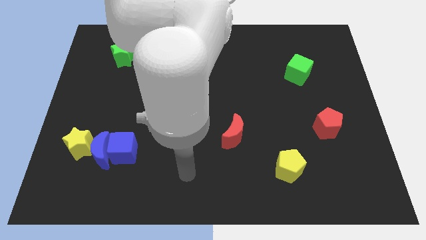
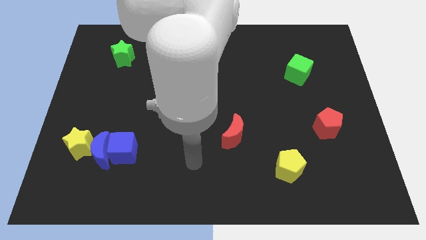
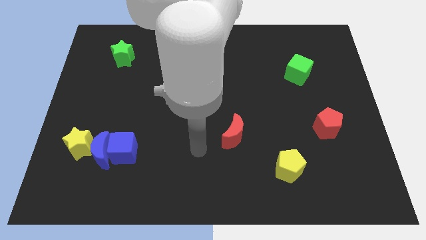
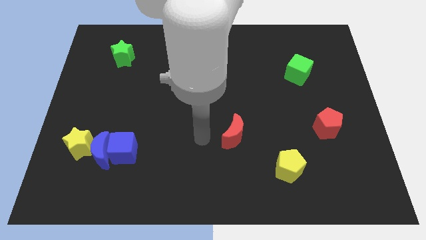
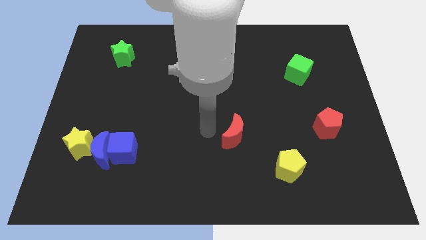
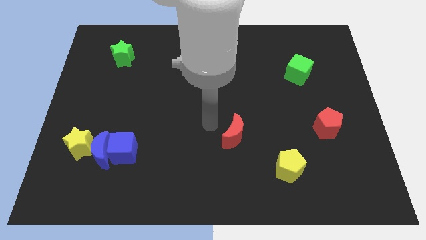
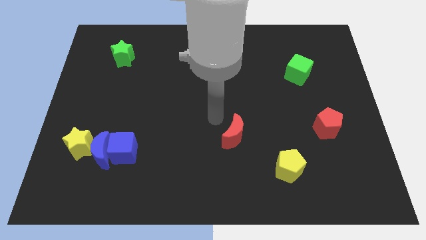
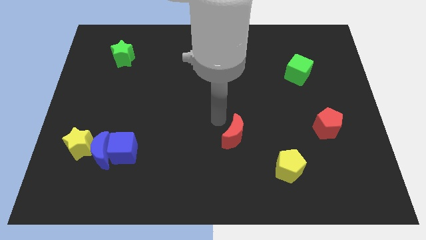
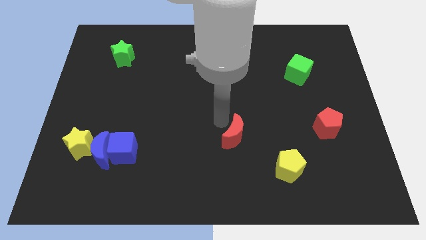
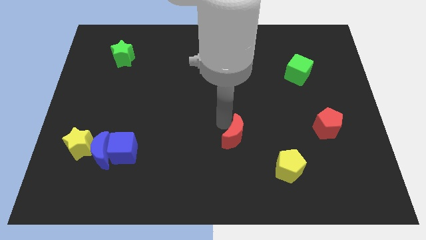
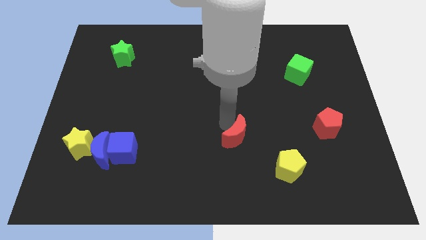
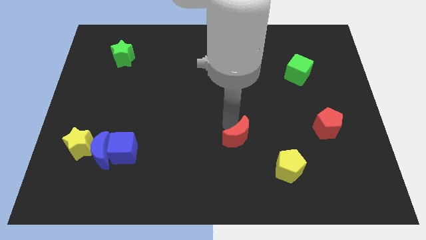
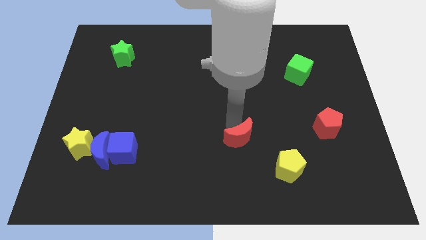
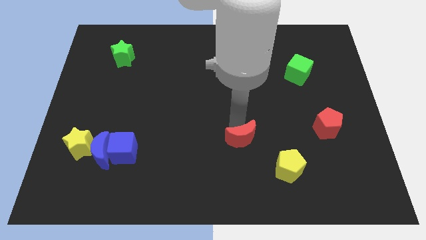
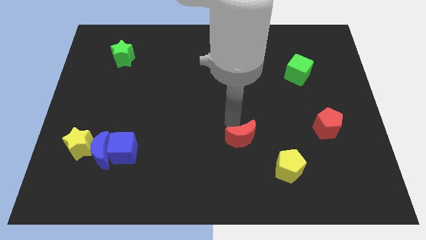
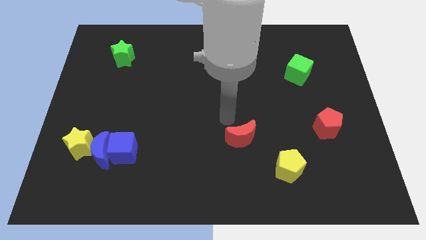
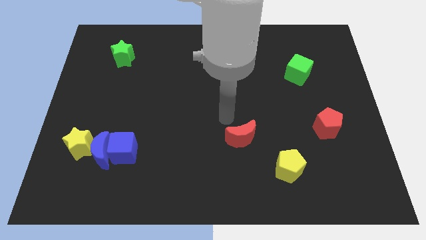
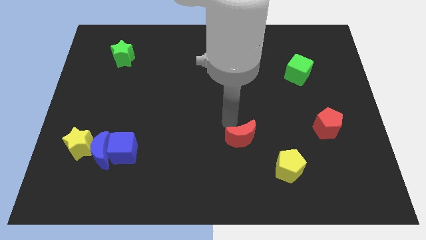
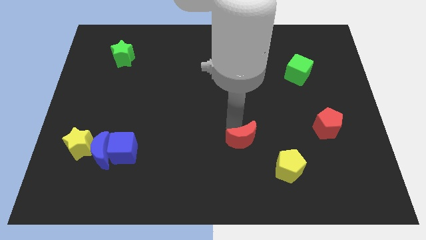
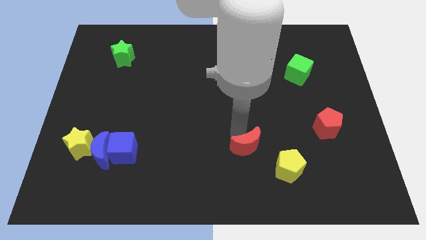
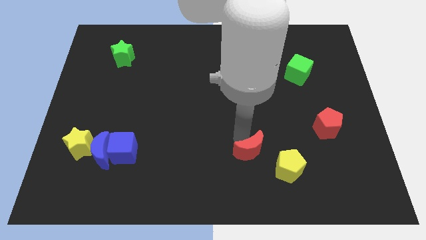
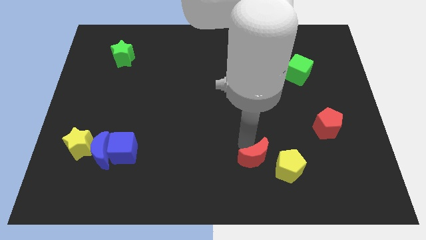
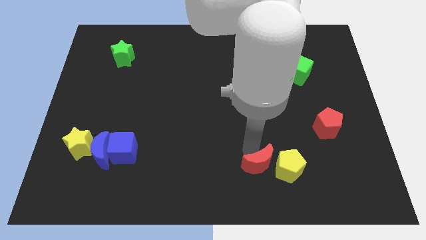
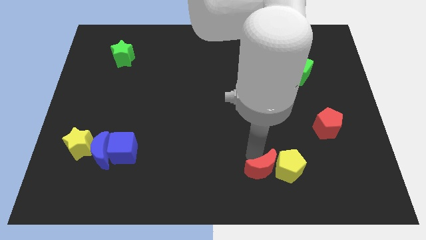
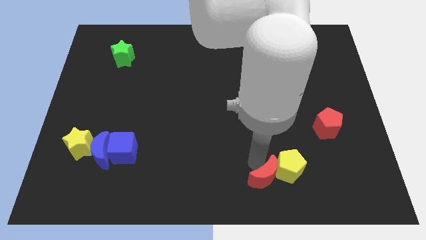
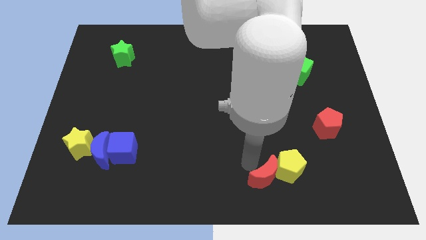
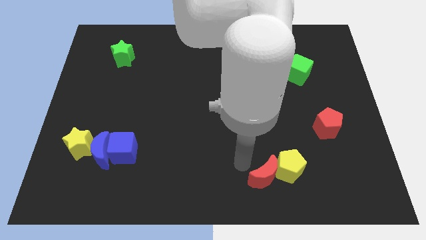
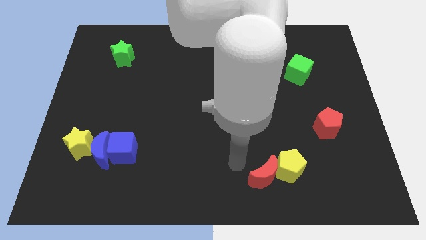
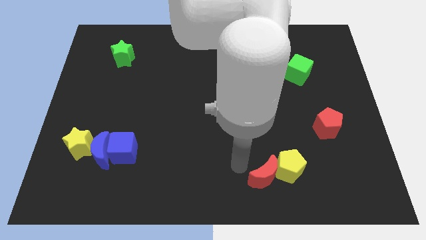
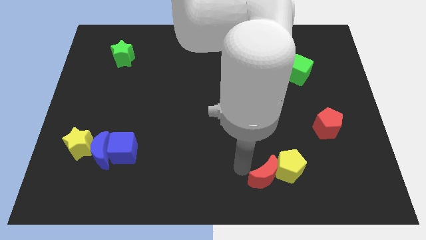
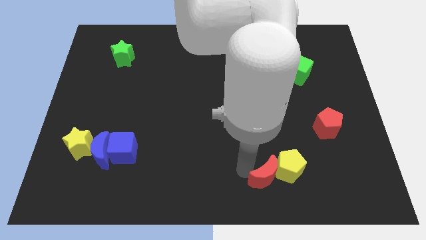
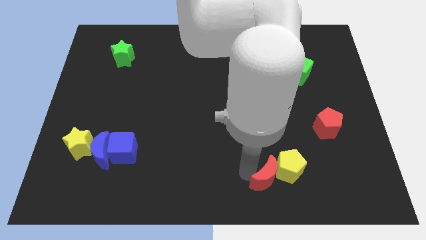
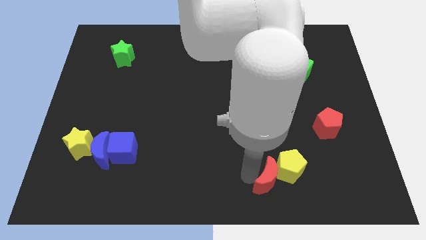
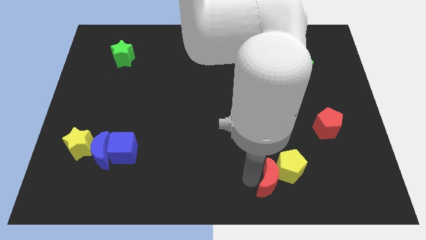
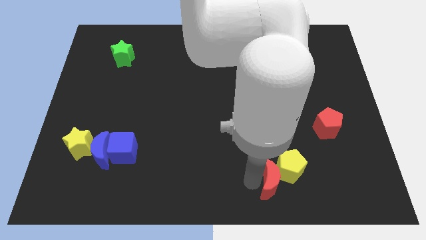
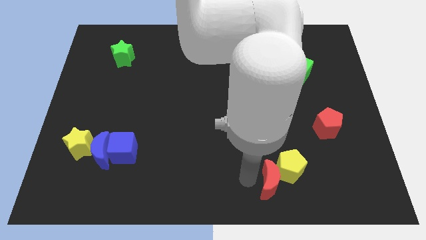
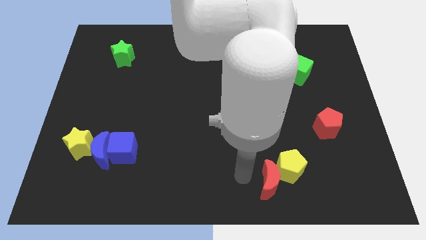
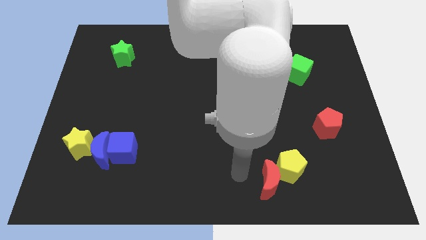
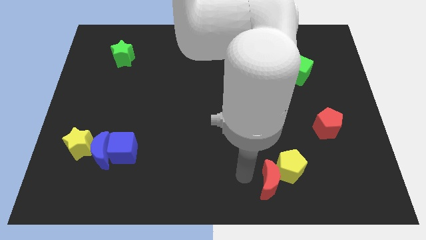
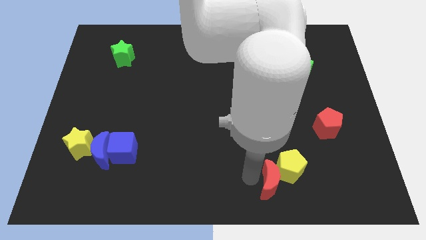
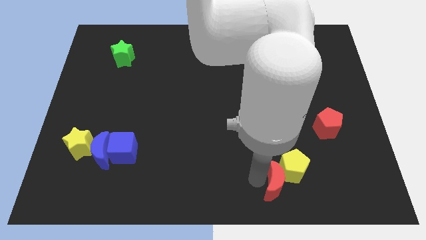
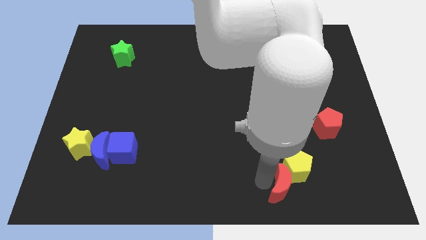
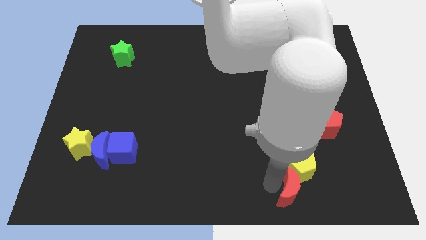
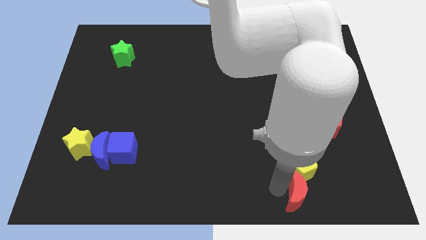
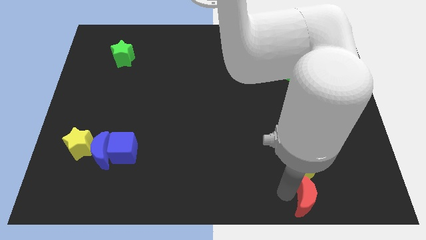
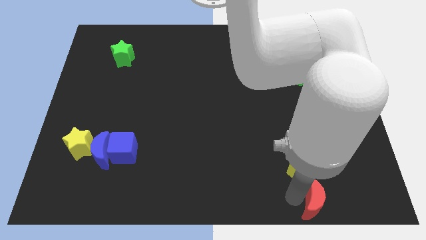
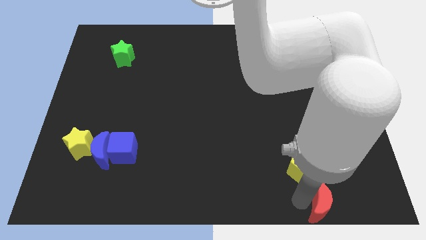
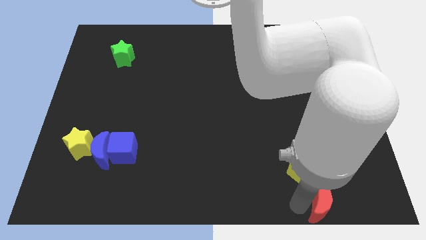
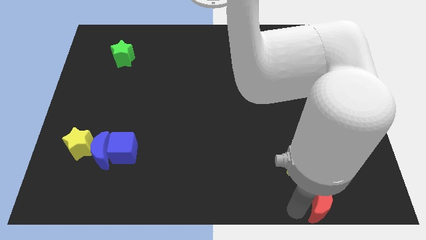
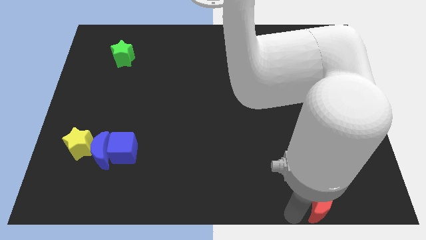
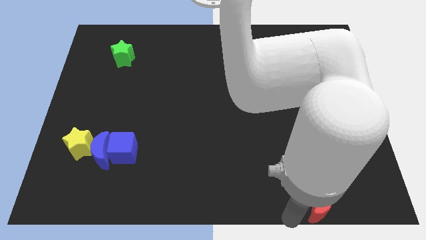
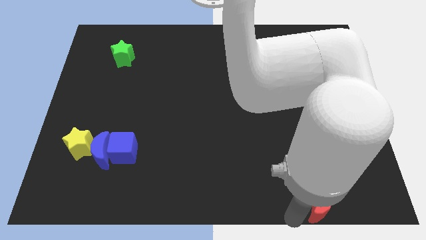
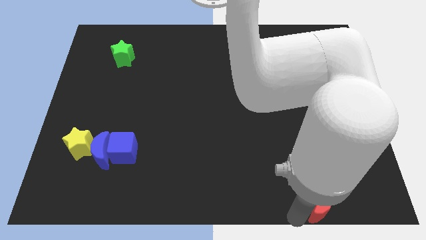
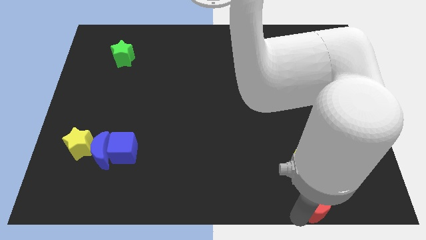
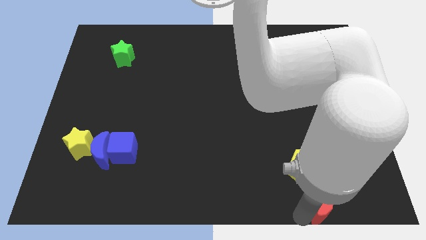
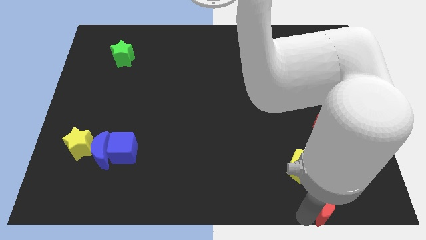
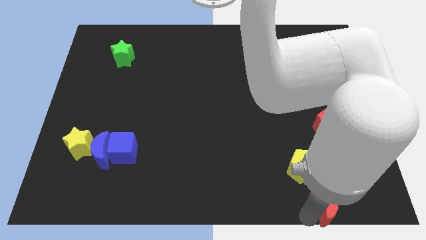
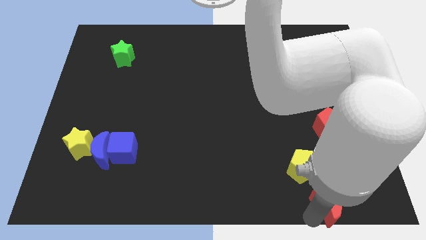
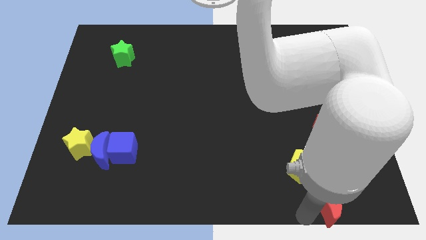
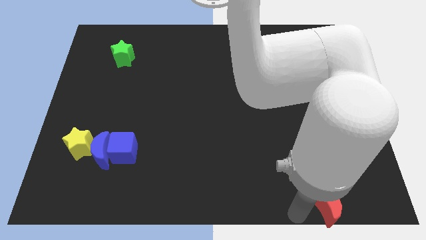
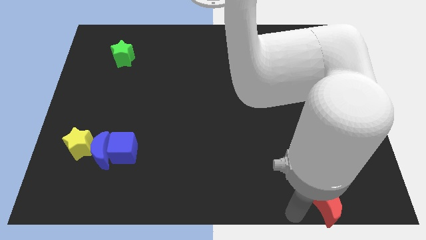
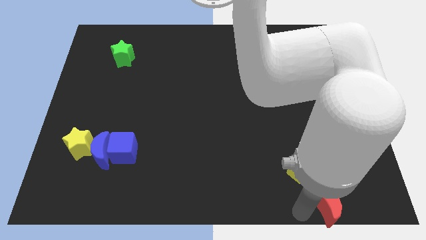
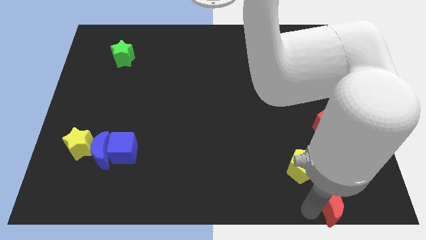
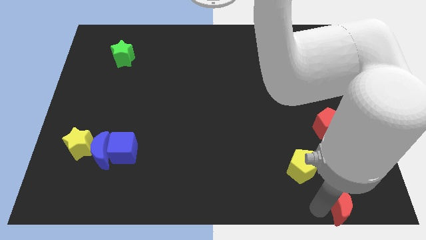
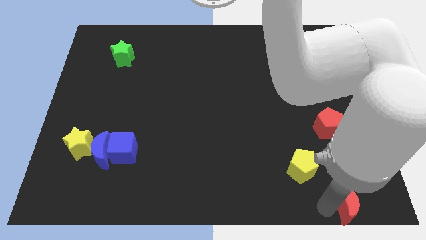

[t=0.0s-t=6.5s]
push the red moon to the lower right corner
